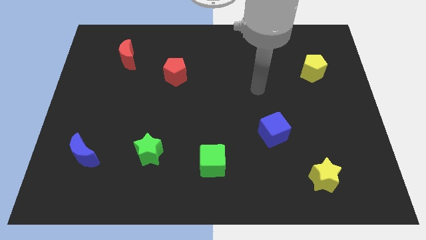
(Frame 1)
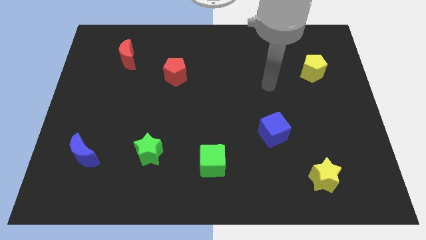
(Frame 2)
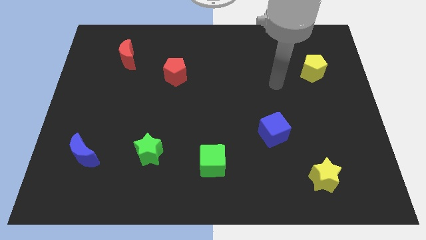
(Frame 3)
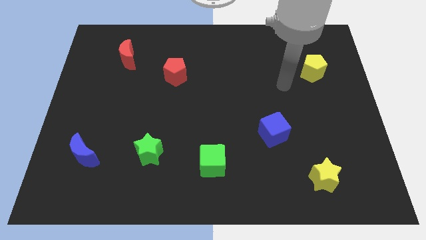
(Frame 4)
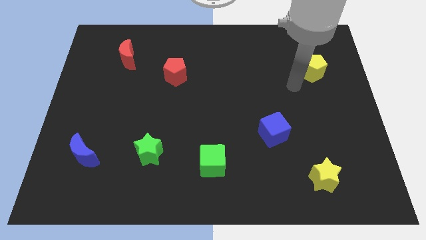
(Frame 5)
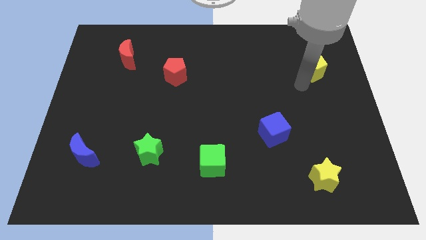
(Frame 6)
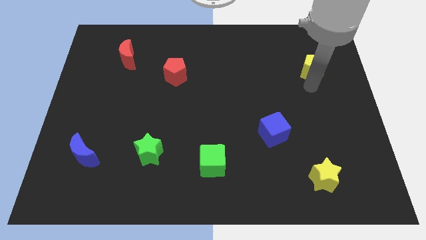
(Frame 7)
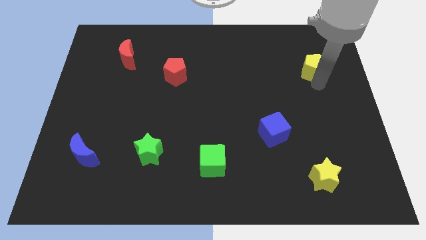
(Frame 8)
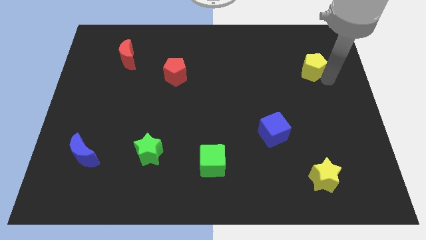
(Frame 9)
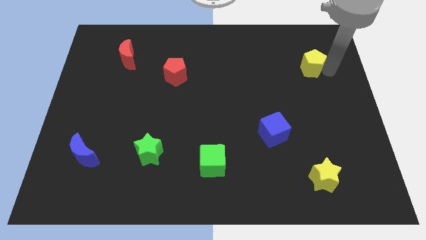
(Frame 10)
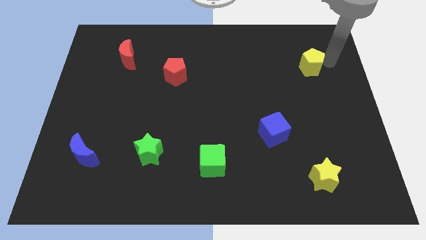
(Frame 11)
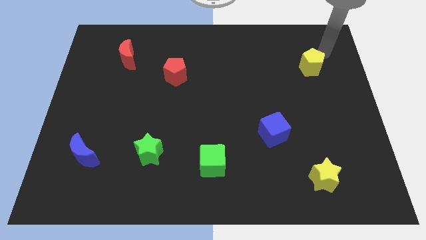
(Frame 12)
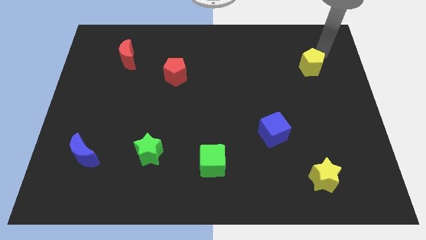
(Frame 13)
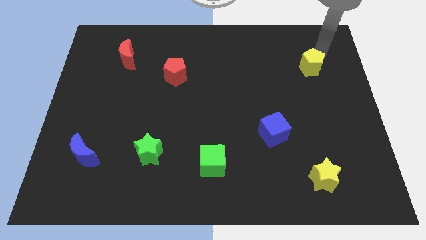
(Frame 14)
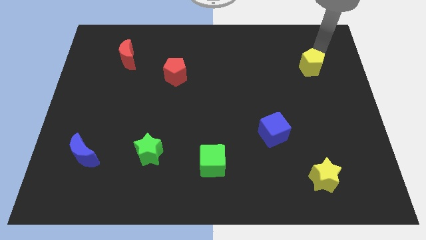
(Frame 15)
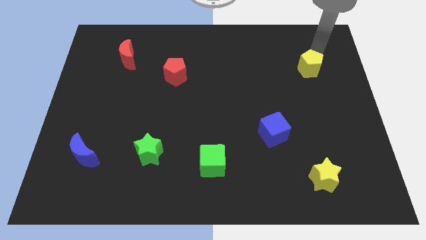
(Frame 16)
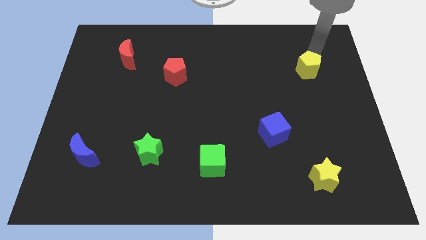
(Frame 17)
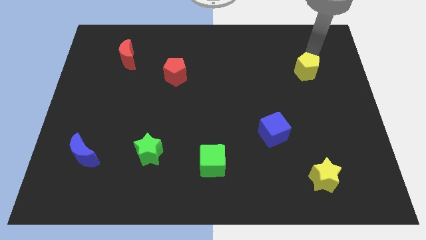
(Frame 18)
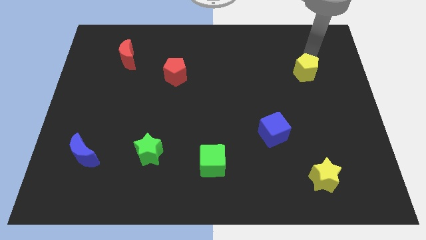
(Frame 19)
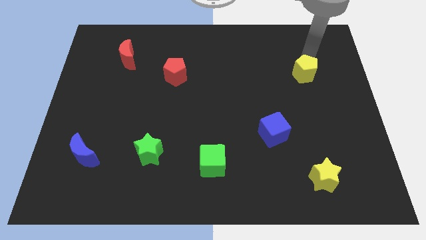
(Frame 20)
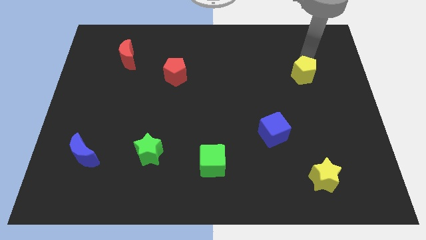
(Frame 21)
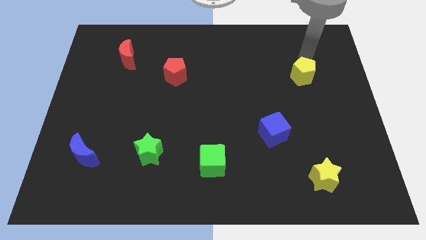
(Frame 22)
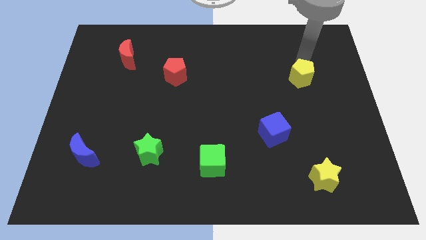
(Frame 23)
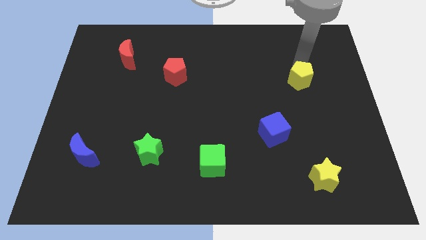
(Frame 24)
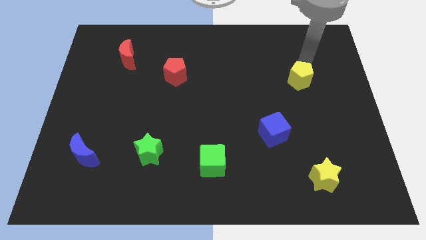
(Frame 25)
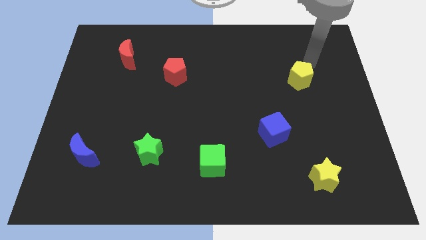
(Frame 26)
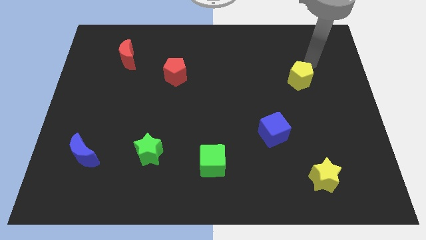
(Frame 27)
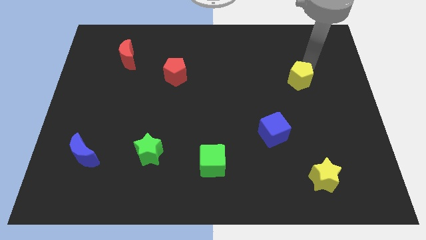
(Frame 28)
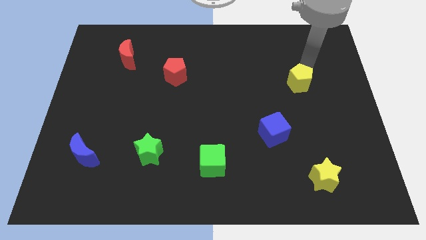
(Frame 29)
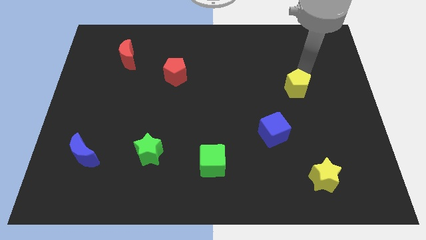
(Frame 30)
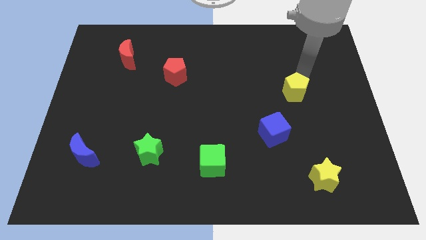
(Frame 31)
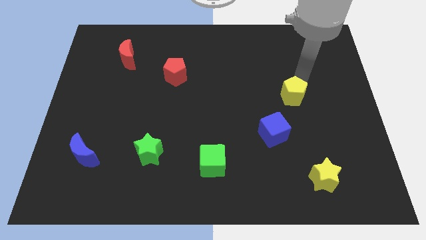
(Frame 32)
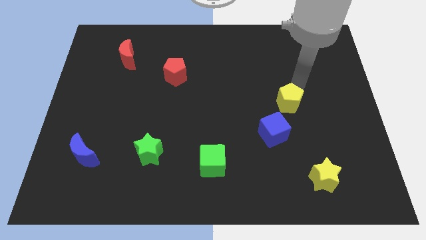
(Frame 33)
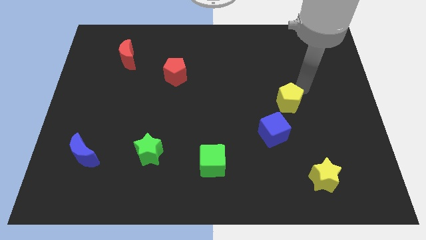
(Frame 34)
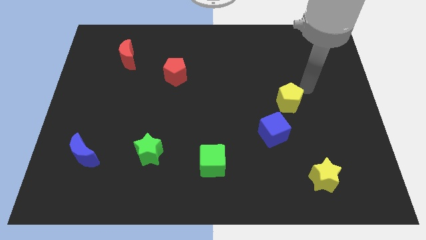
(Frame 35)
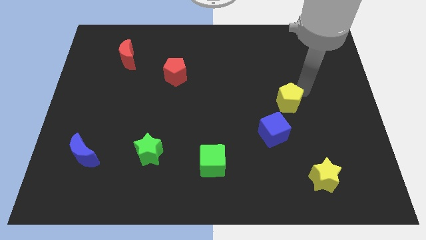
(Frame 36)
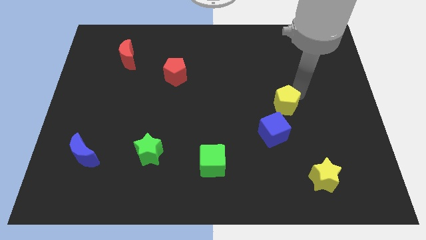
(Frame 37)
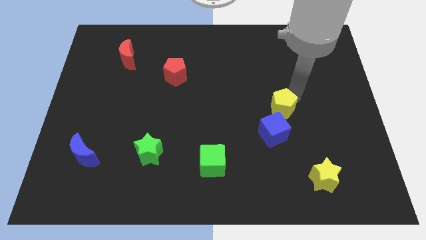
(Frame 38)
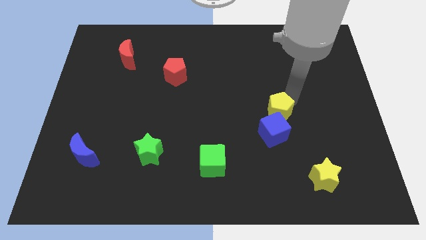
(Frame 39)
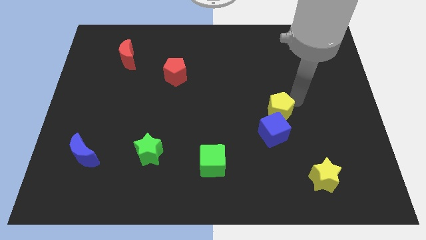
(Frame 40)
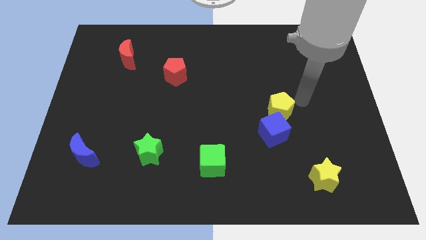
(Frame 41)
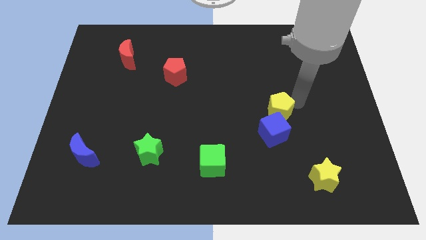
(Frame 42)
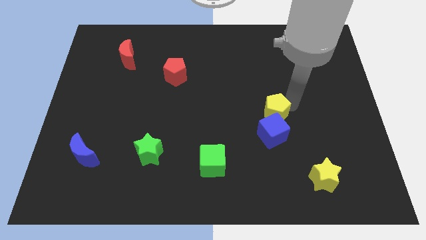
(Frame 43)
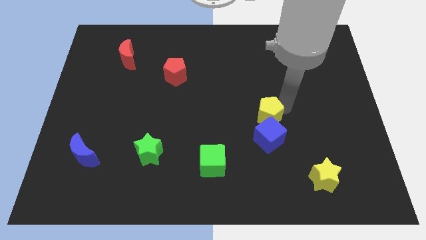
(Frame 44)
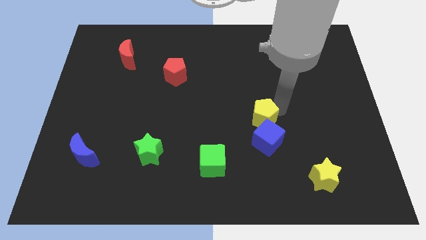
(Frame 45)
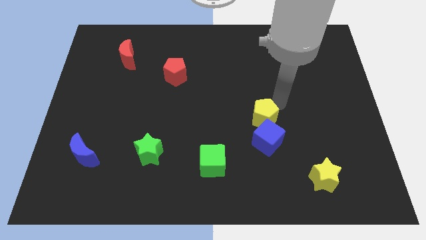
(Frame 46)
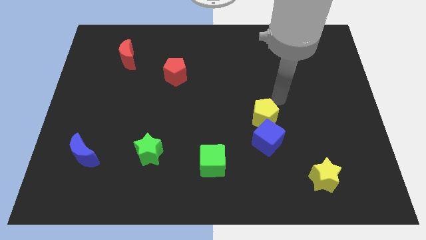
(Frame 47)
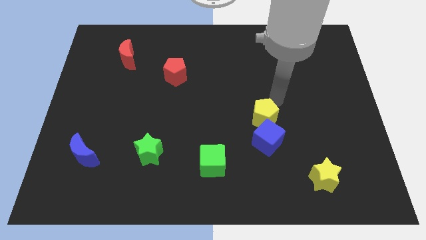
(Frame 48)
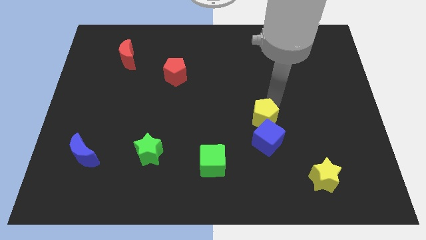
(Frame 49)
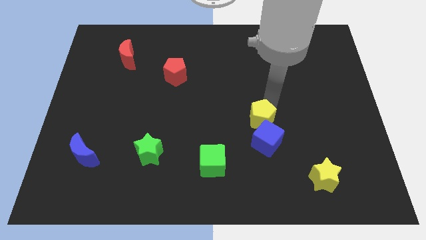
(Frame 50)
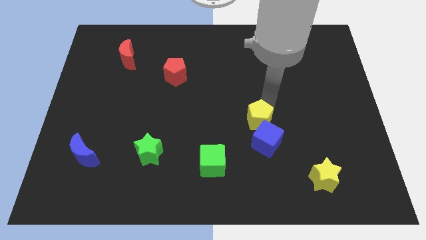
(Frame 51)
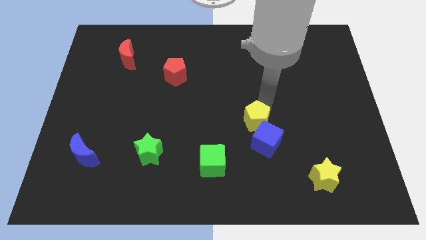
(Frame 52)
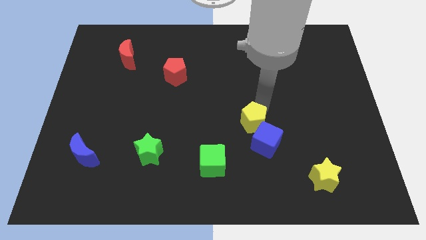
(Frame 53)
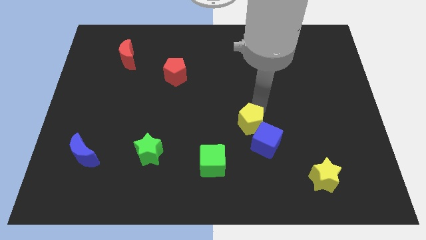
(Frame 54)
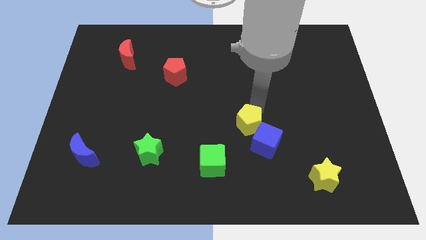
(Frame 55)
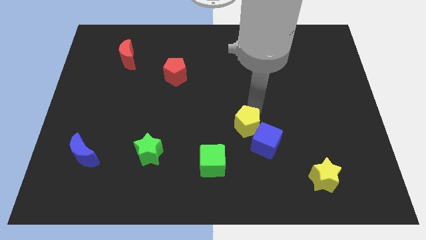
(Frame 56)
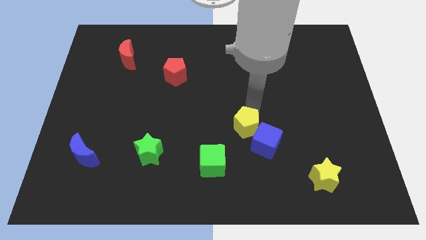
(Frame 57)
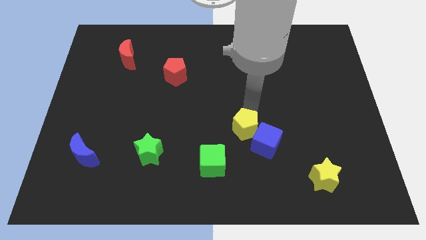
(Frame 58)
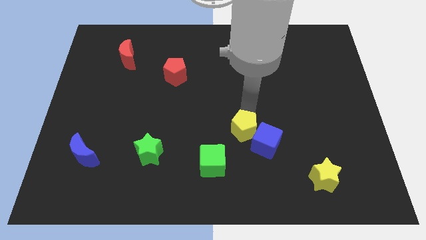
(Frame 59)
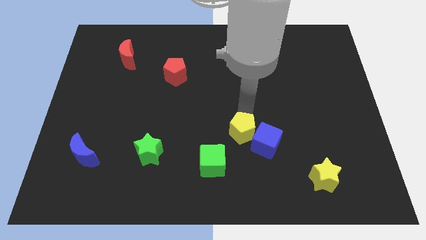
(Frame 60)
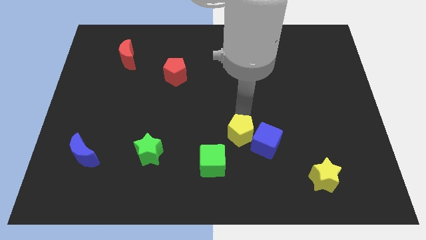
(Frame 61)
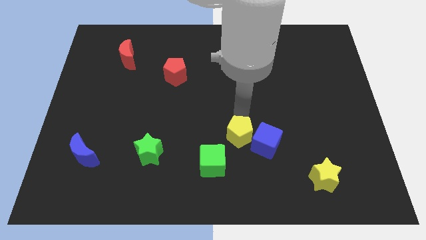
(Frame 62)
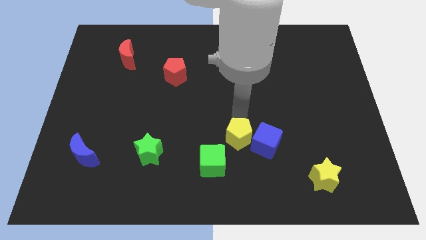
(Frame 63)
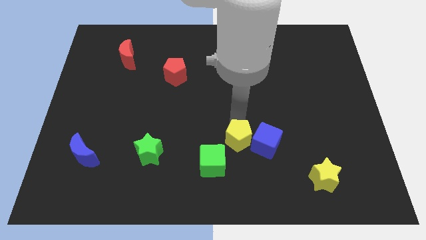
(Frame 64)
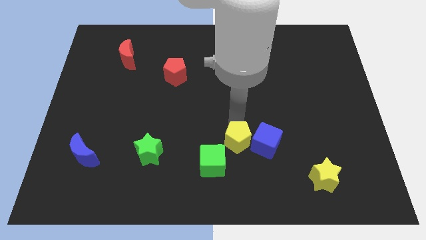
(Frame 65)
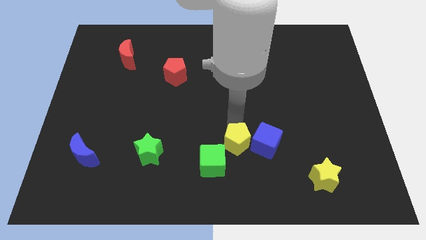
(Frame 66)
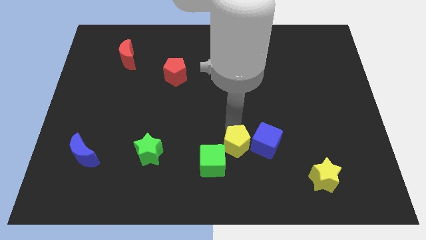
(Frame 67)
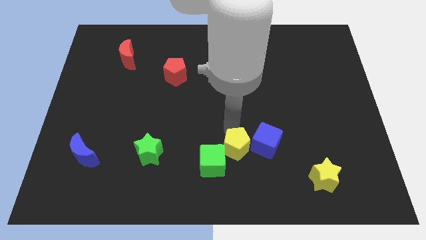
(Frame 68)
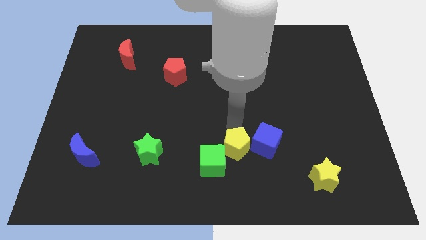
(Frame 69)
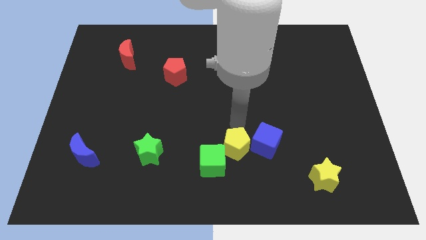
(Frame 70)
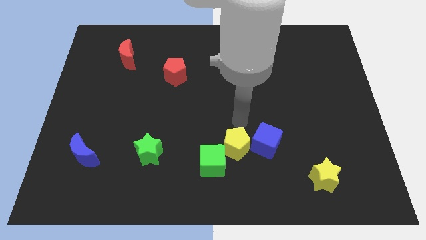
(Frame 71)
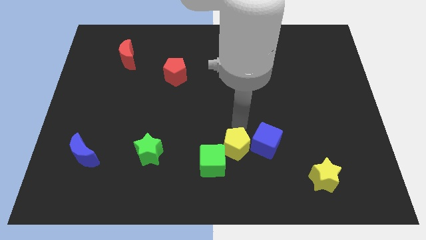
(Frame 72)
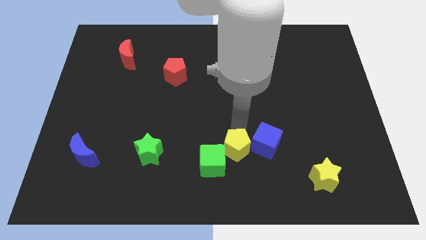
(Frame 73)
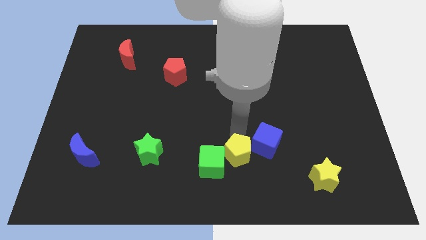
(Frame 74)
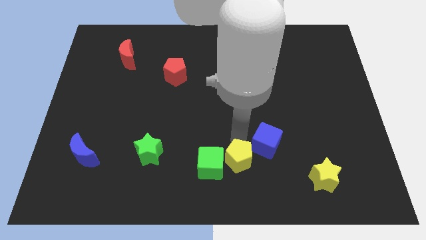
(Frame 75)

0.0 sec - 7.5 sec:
move the yellow pentagon to the bottom
